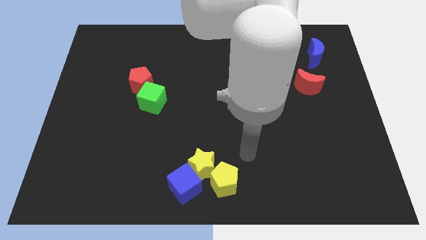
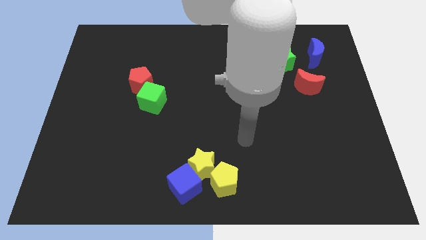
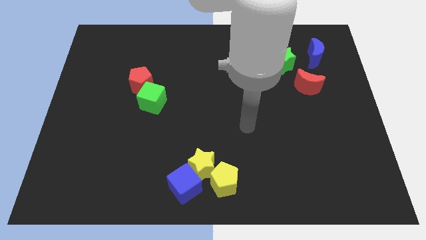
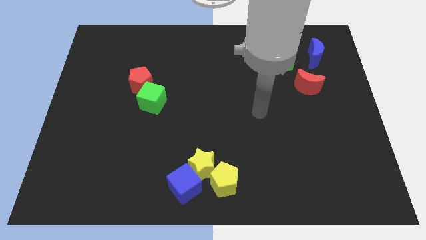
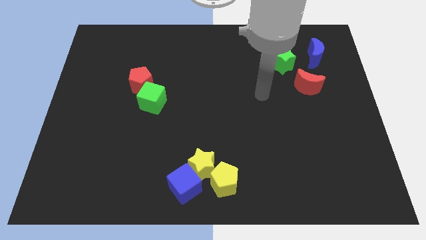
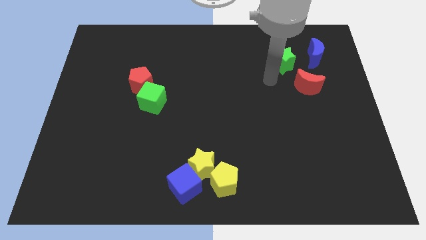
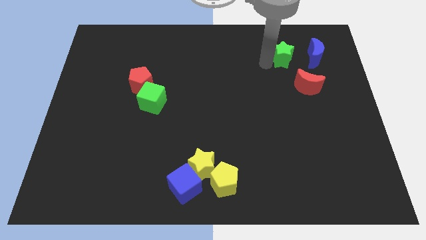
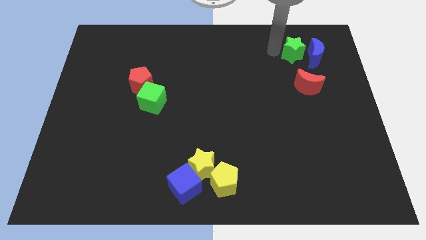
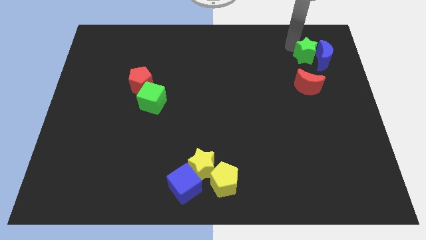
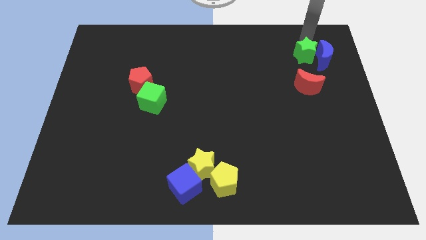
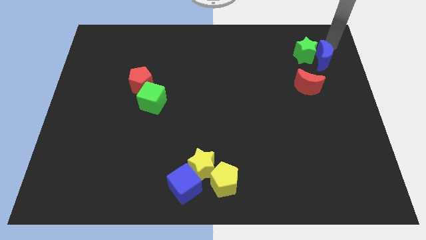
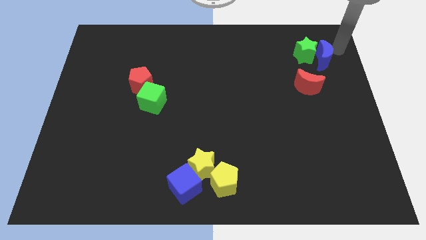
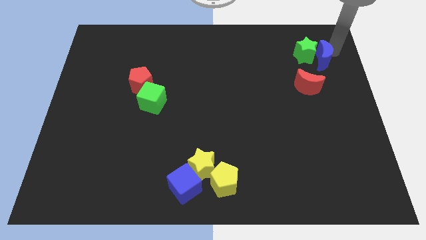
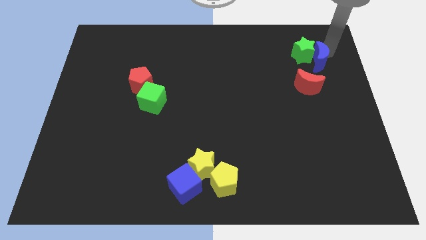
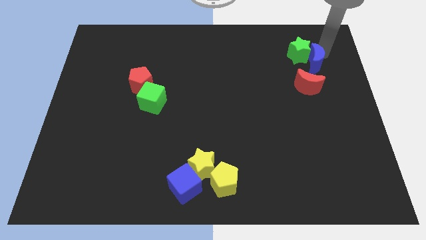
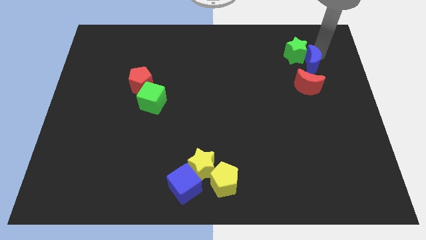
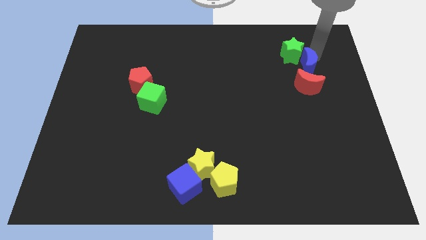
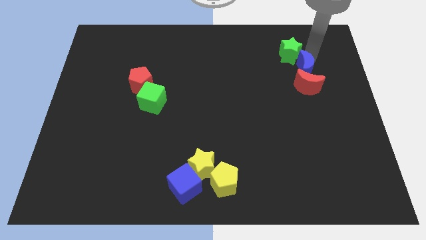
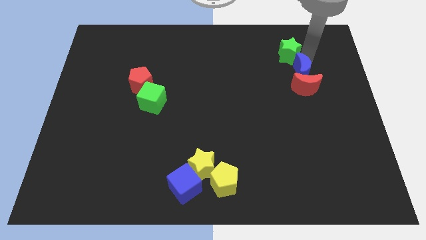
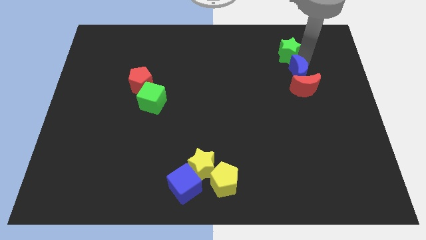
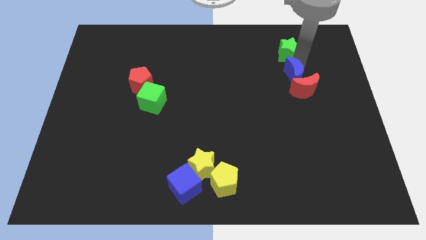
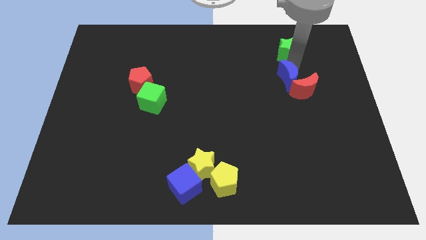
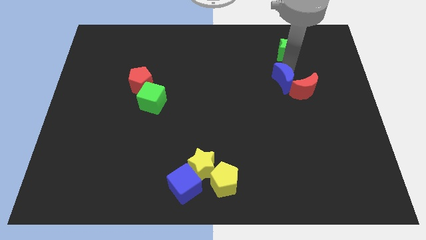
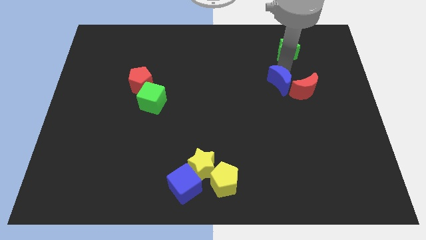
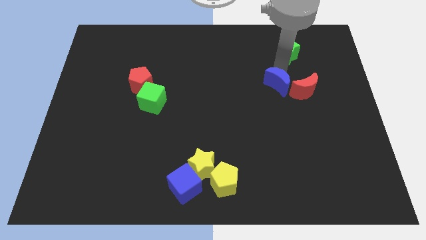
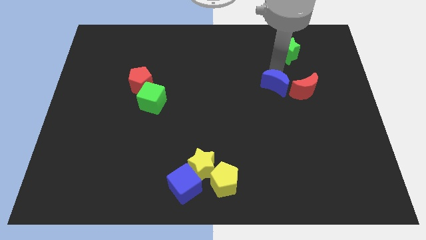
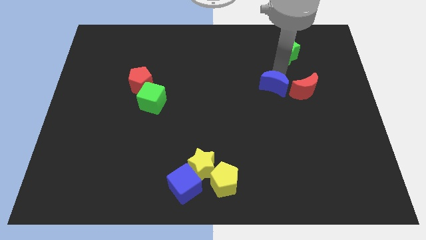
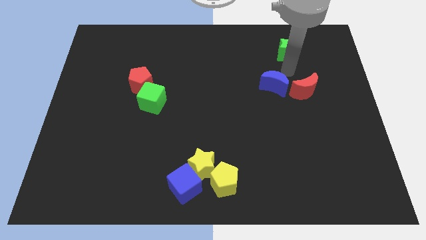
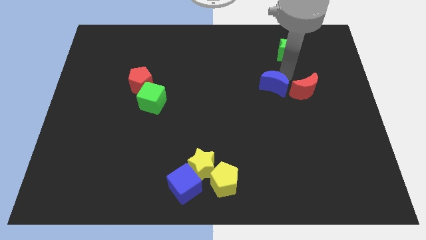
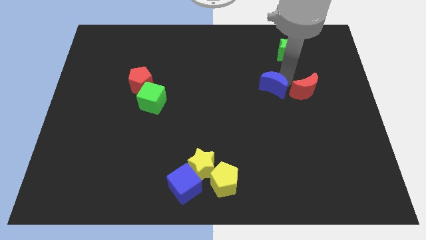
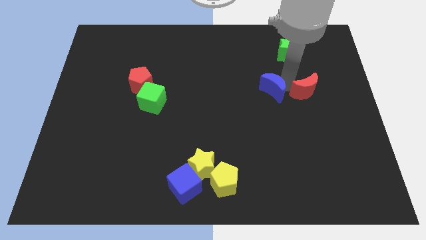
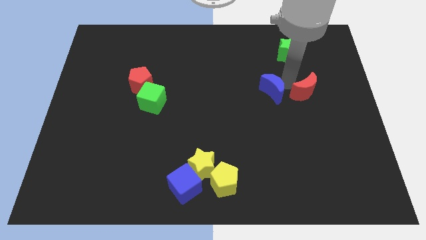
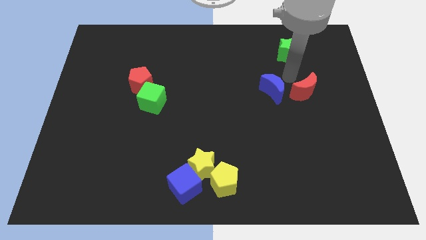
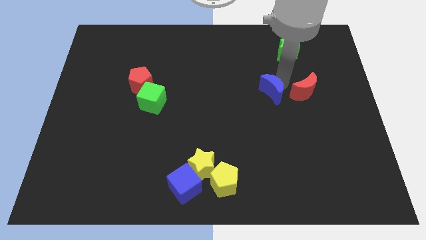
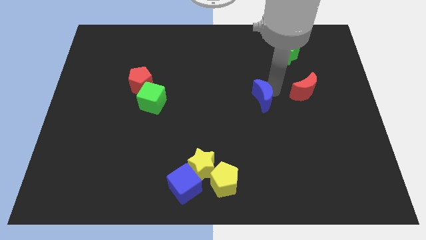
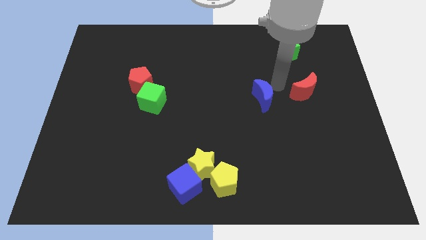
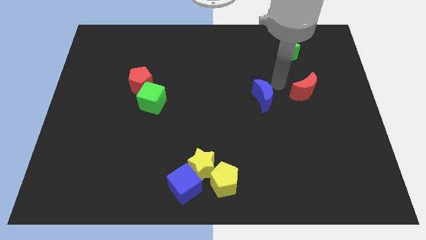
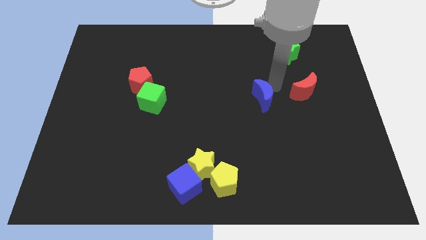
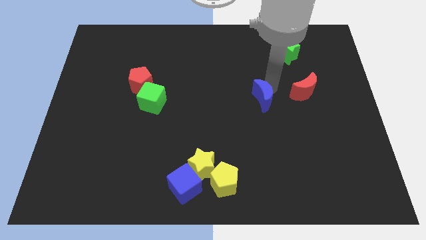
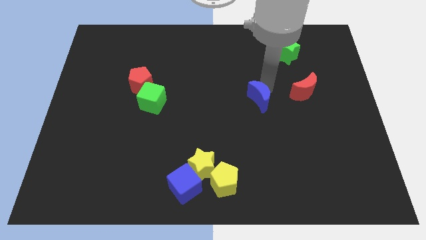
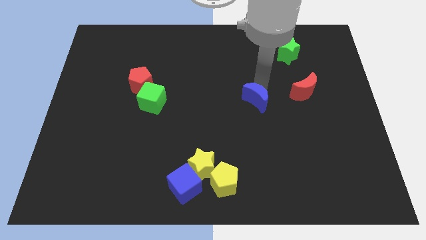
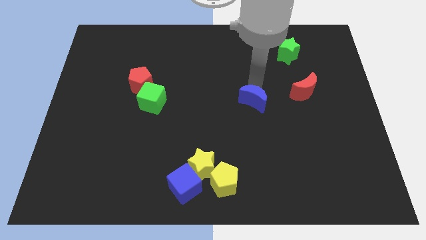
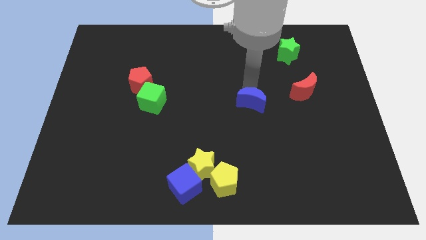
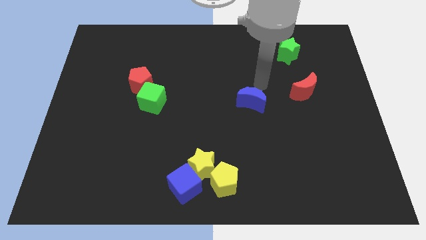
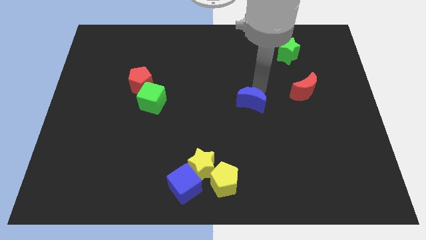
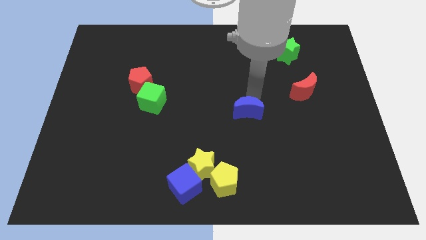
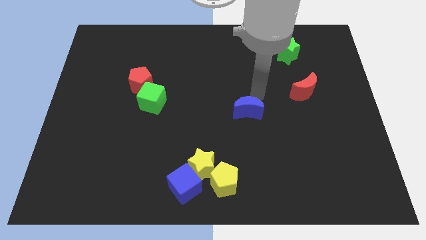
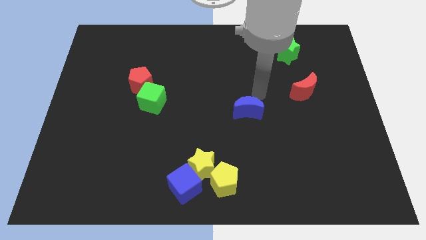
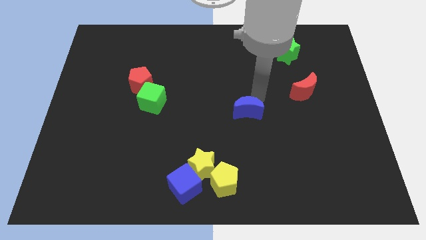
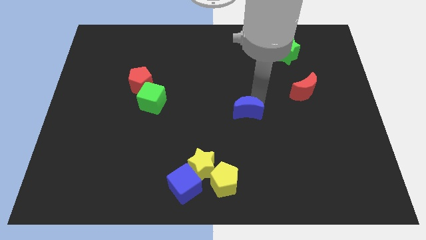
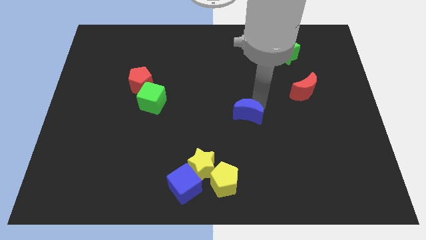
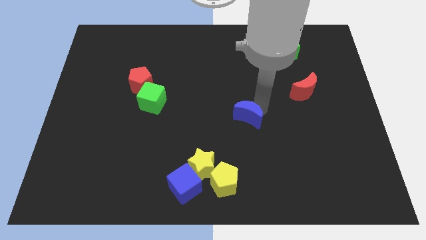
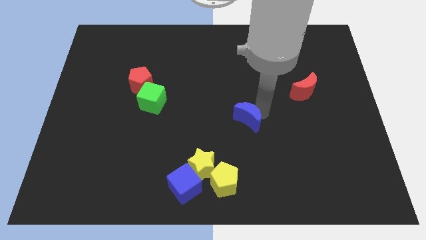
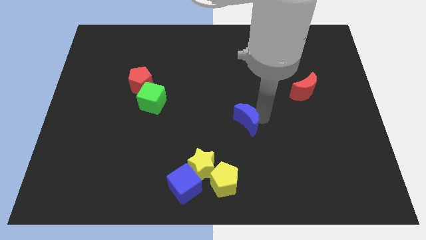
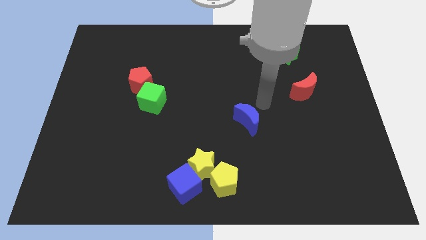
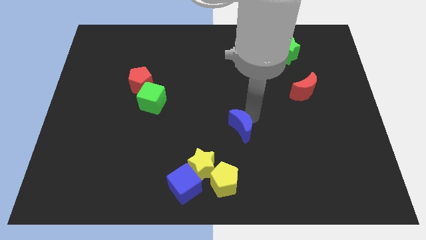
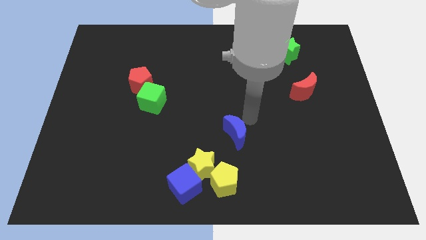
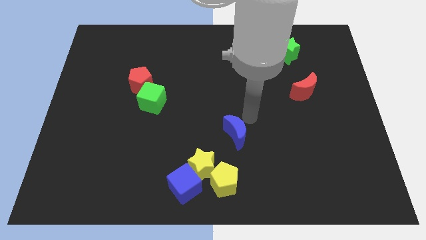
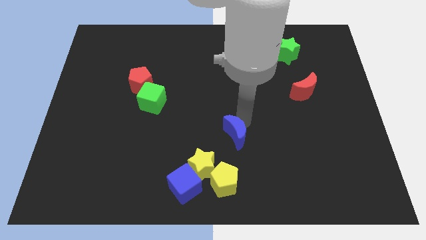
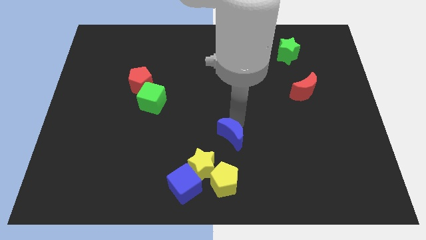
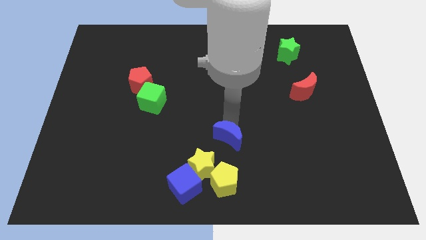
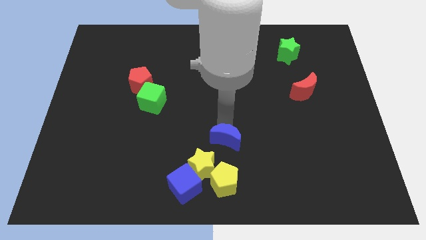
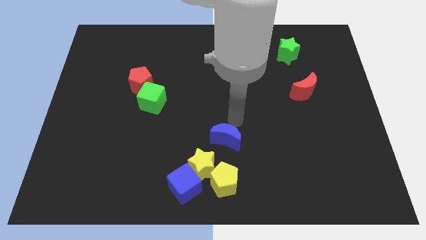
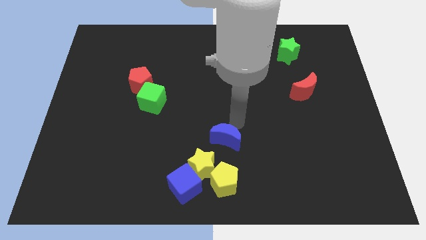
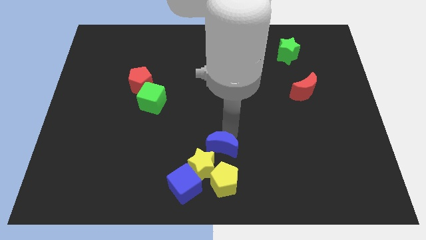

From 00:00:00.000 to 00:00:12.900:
push the blue moon to the top right side of the blue cube

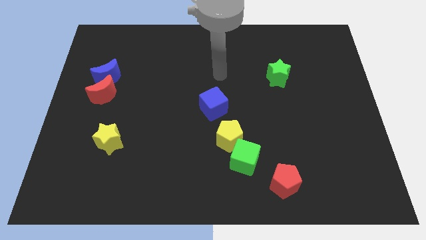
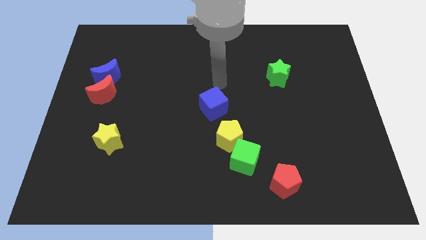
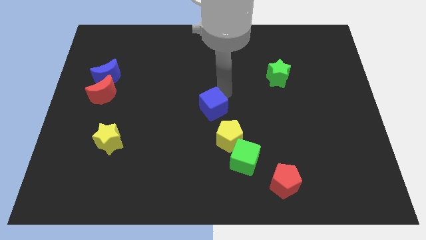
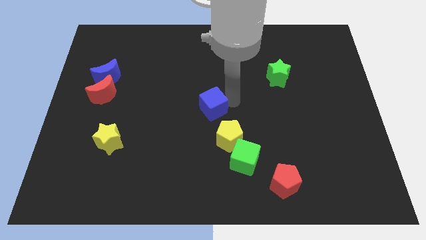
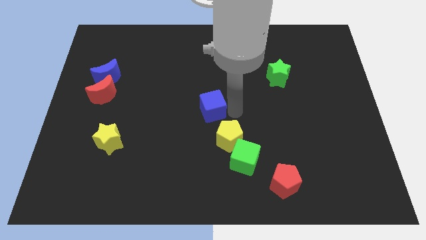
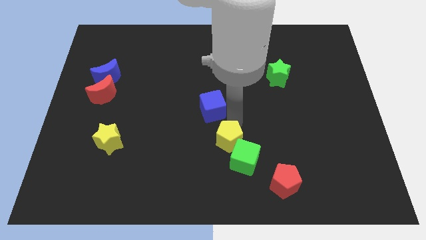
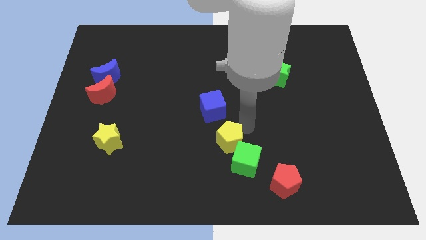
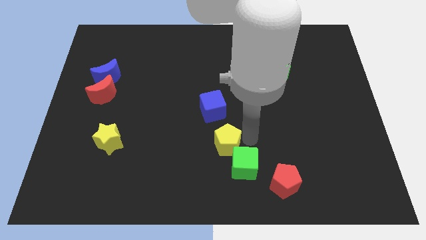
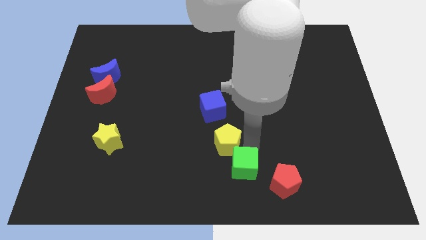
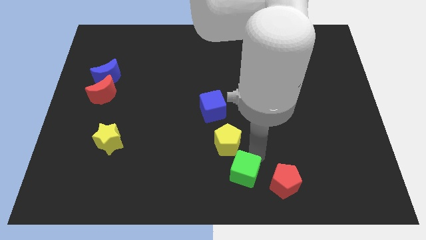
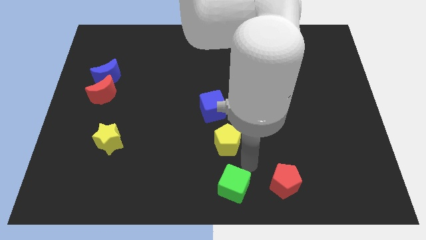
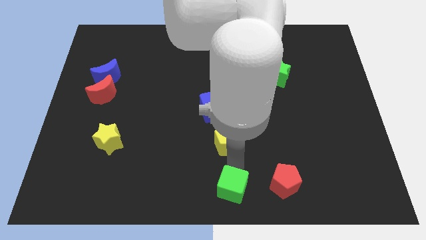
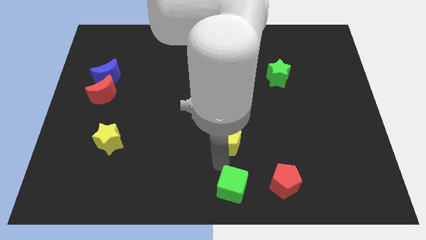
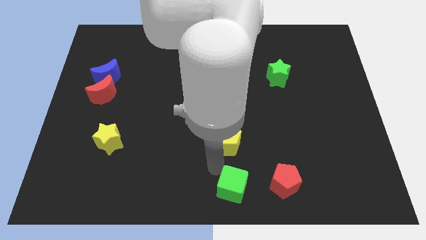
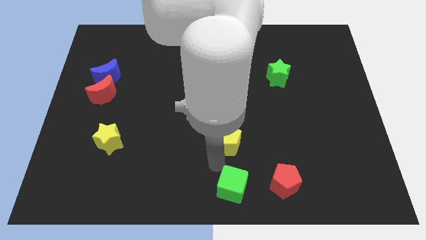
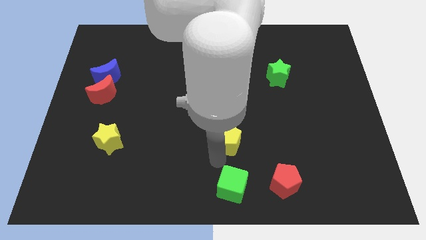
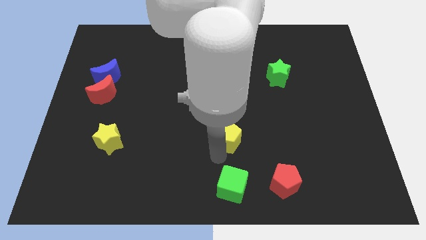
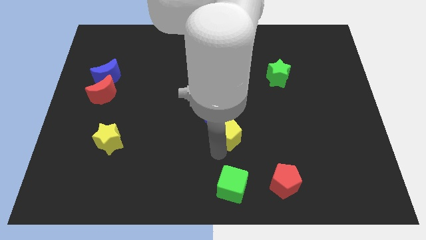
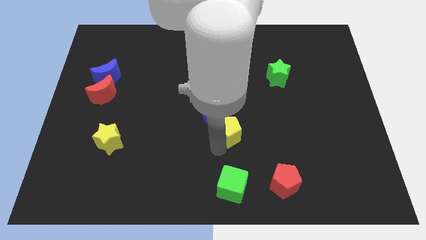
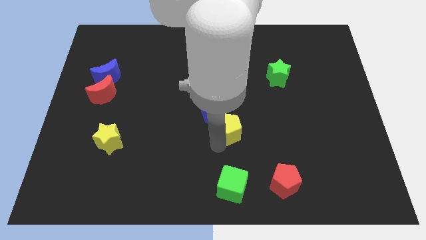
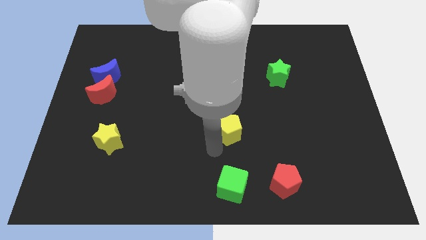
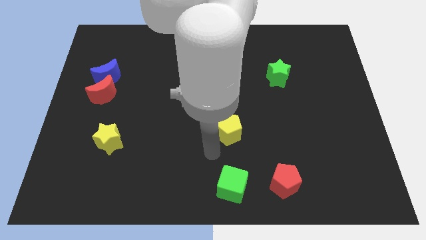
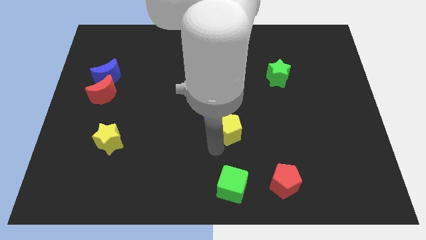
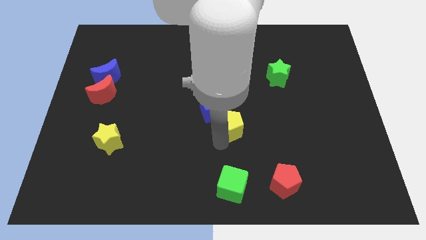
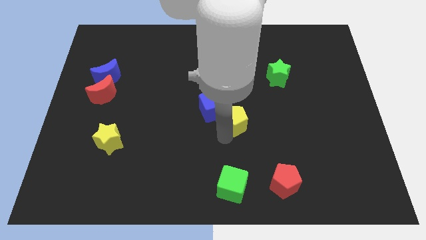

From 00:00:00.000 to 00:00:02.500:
move the yellow pentagon right of the blue cube
